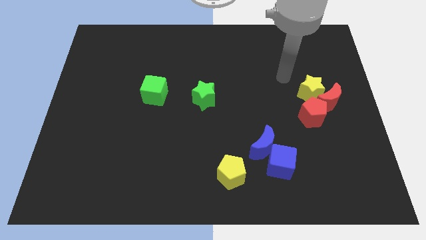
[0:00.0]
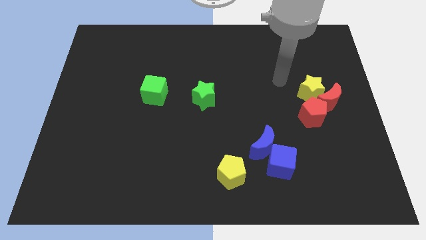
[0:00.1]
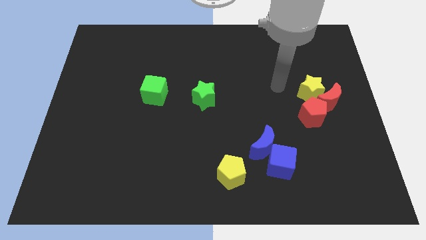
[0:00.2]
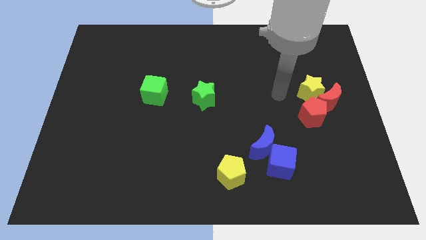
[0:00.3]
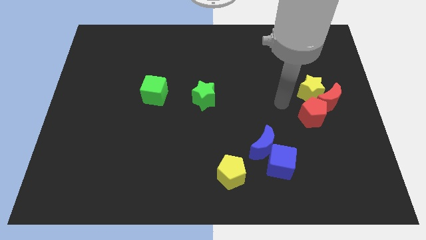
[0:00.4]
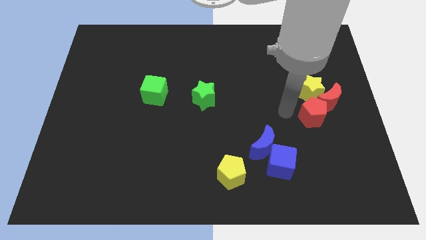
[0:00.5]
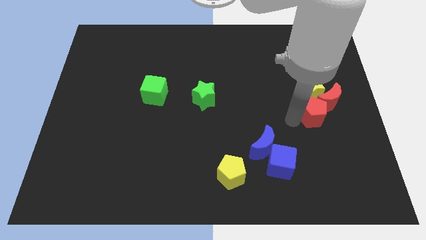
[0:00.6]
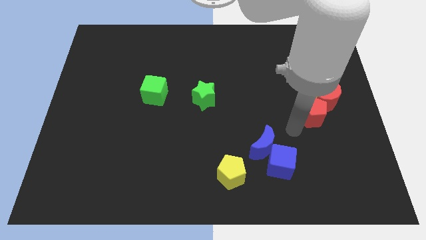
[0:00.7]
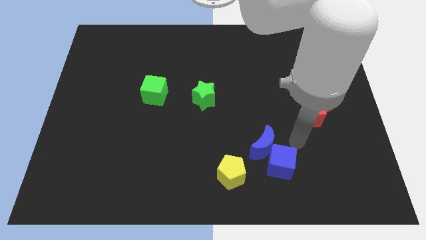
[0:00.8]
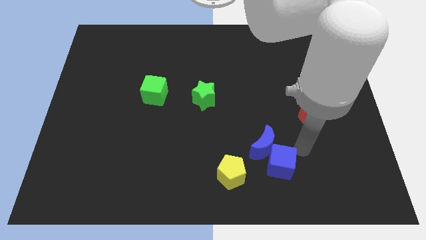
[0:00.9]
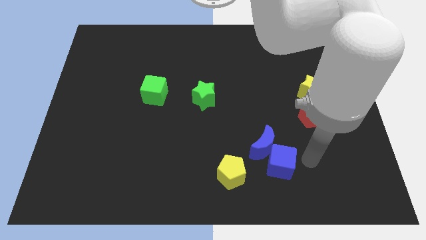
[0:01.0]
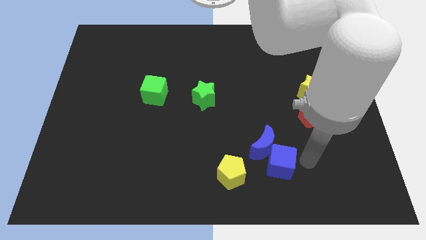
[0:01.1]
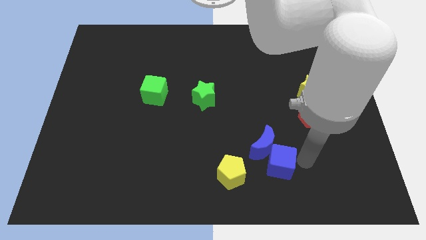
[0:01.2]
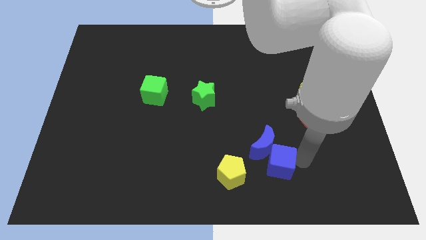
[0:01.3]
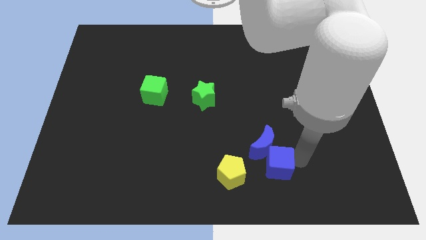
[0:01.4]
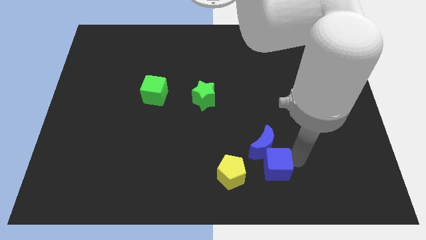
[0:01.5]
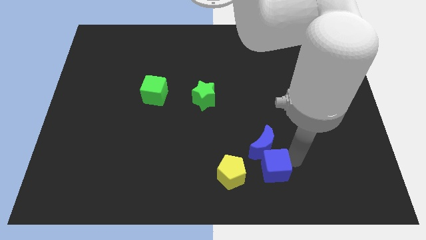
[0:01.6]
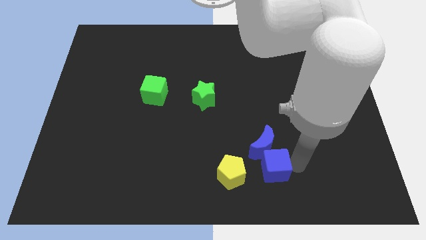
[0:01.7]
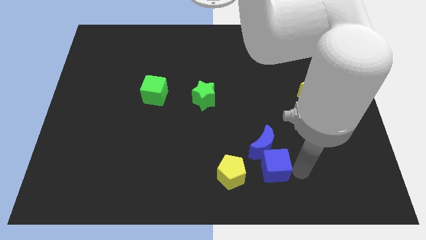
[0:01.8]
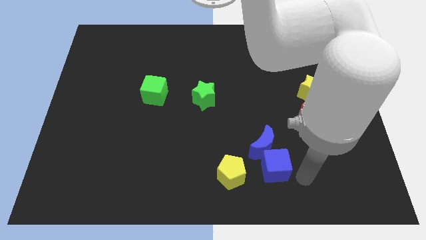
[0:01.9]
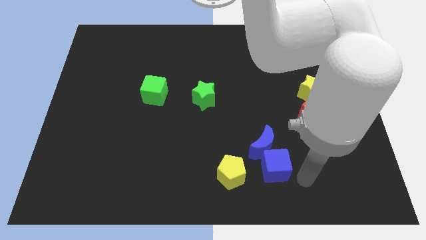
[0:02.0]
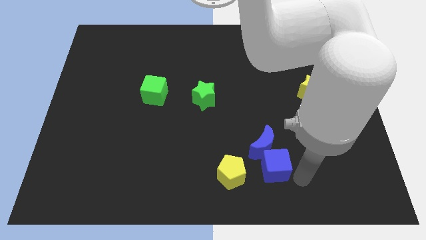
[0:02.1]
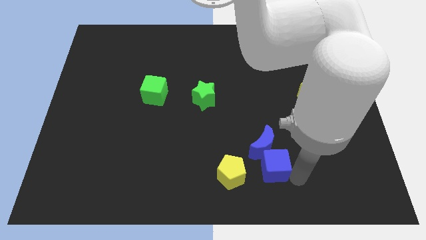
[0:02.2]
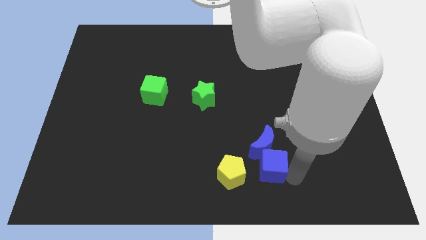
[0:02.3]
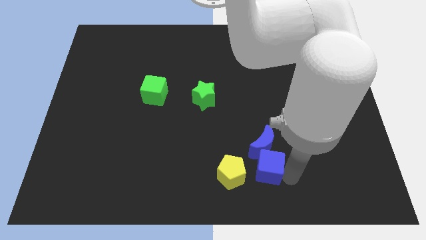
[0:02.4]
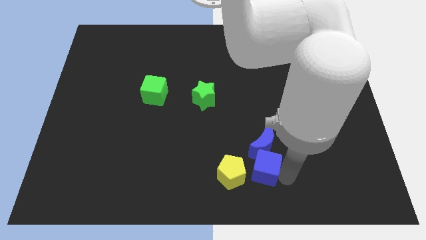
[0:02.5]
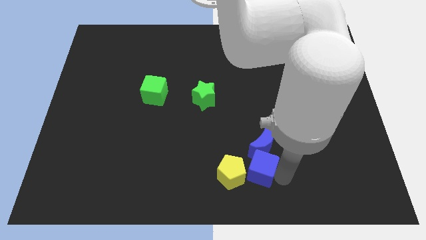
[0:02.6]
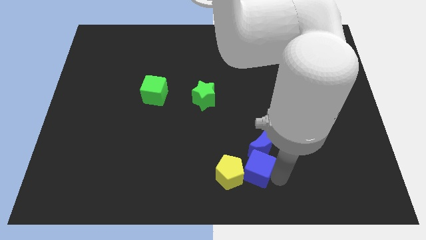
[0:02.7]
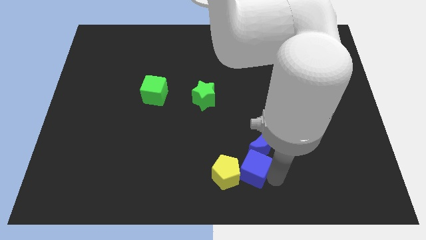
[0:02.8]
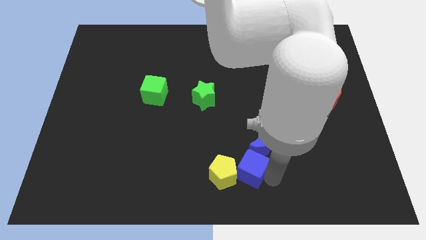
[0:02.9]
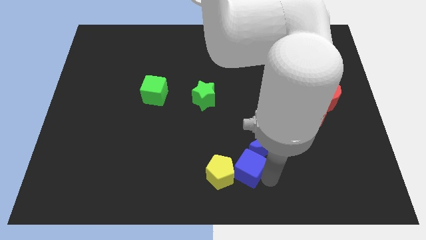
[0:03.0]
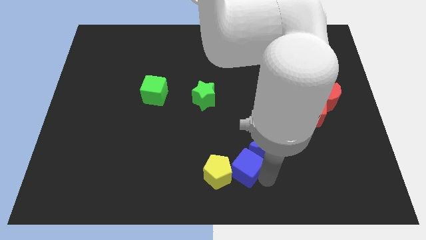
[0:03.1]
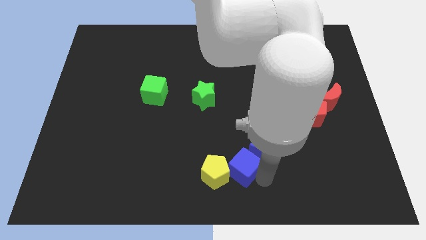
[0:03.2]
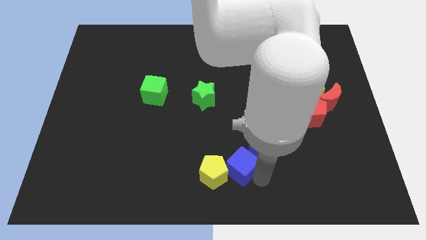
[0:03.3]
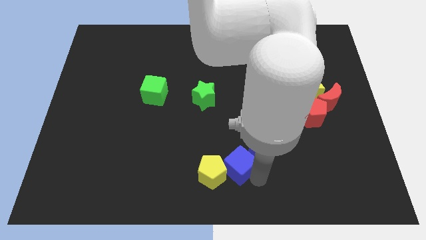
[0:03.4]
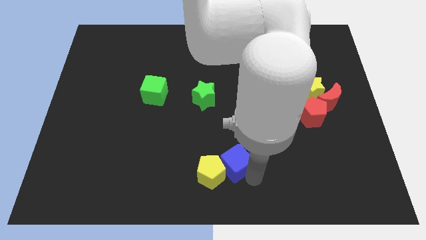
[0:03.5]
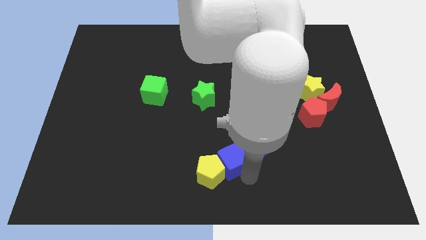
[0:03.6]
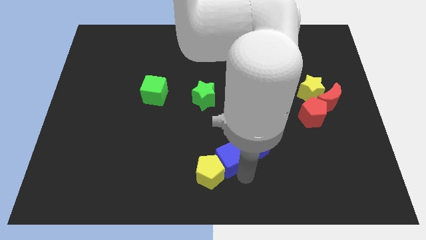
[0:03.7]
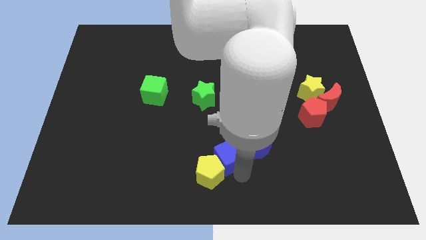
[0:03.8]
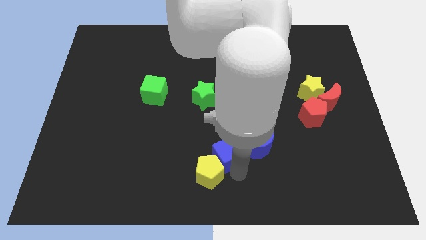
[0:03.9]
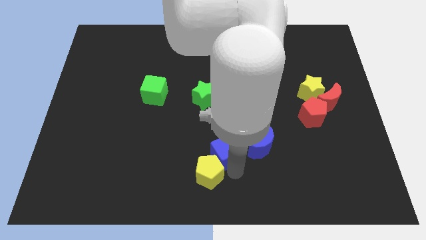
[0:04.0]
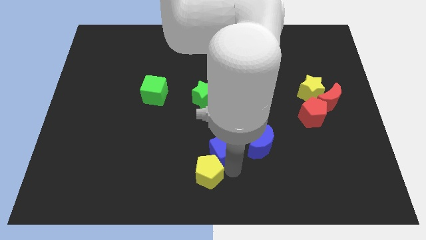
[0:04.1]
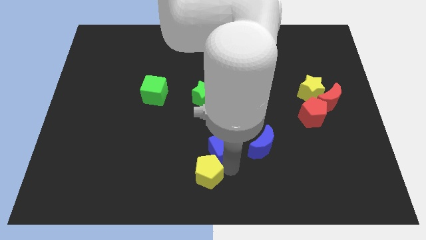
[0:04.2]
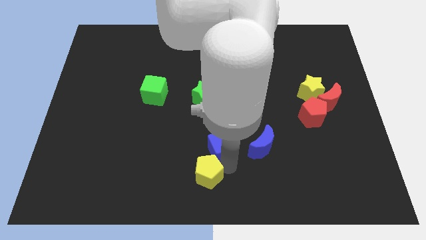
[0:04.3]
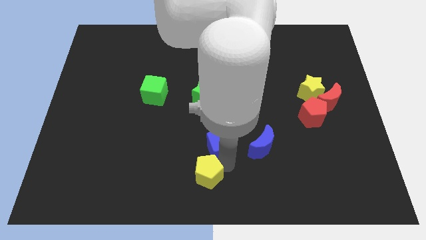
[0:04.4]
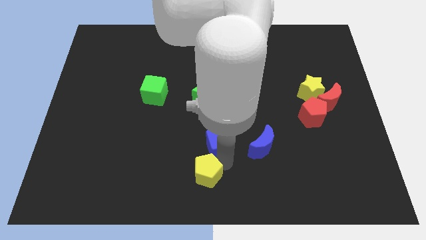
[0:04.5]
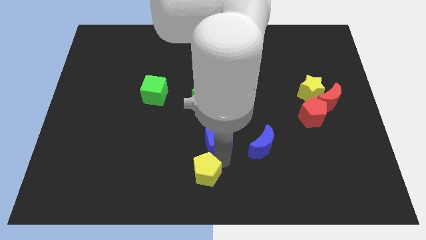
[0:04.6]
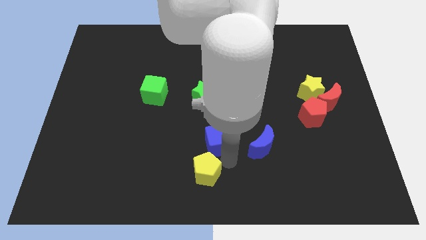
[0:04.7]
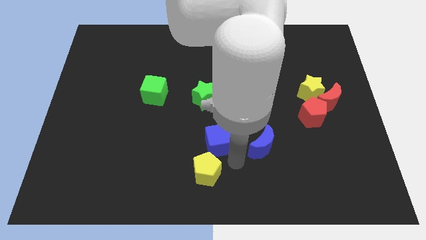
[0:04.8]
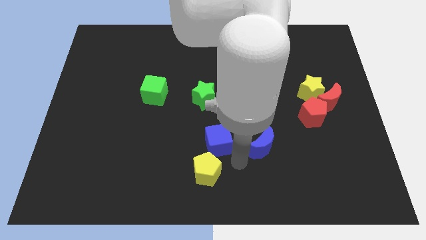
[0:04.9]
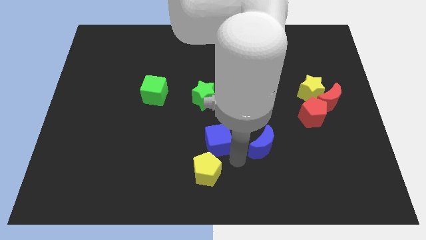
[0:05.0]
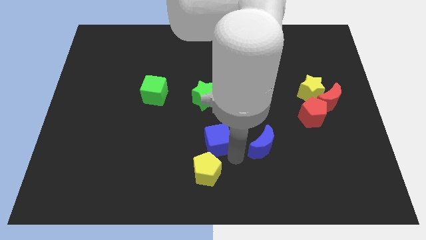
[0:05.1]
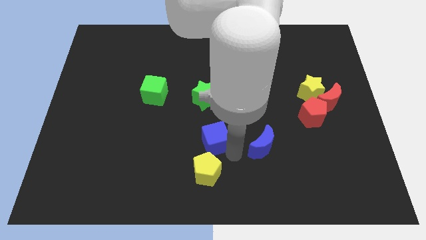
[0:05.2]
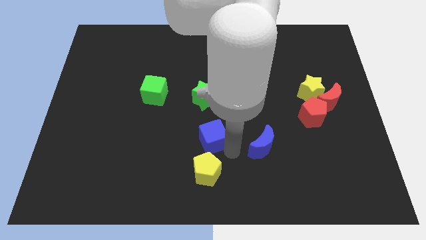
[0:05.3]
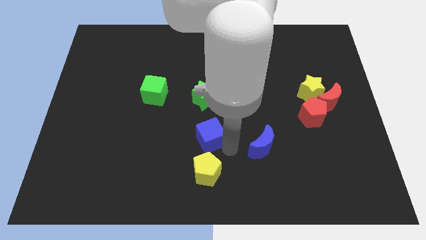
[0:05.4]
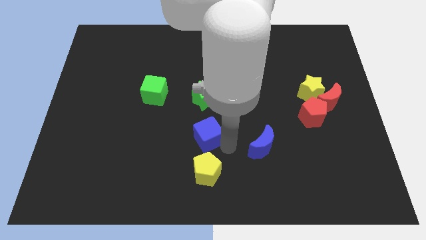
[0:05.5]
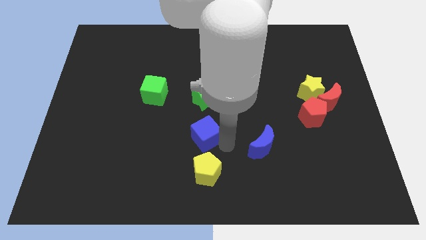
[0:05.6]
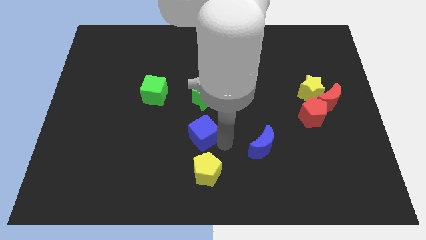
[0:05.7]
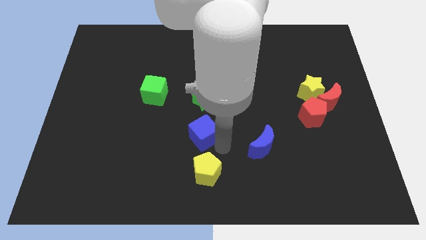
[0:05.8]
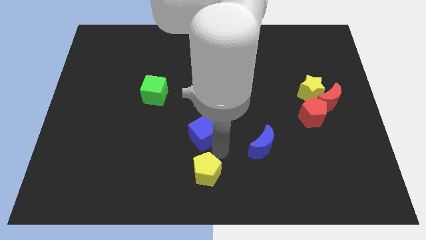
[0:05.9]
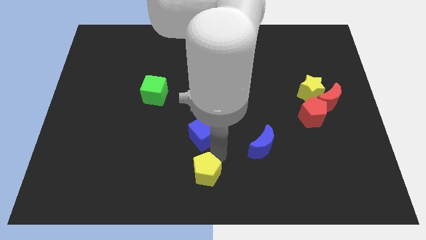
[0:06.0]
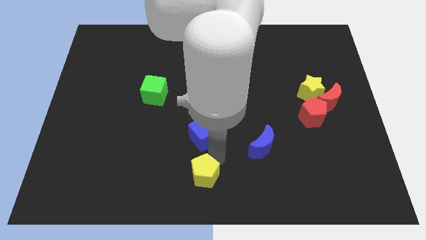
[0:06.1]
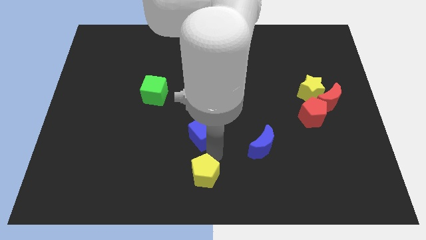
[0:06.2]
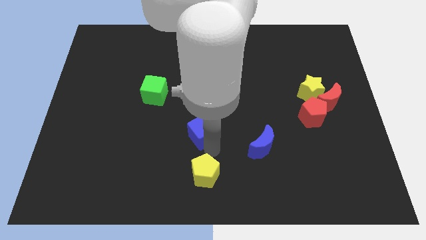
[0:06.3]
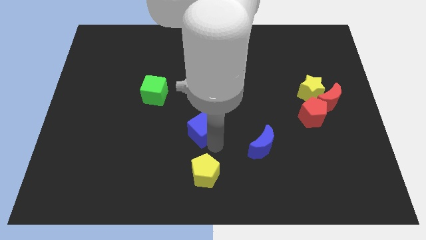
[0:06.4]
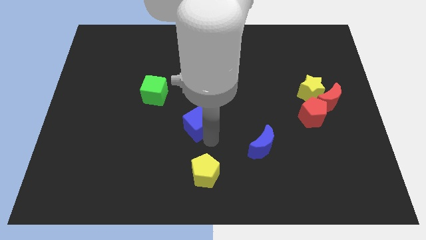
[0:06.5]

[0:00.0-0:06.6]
put the blue cube to the bottom left side of the green star

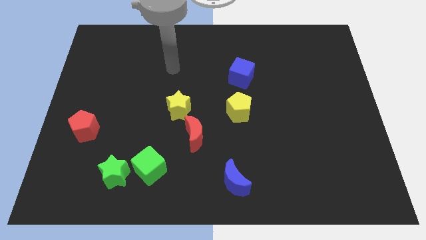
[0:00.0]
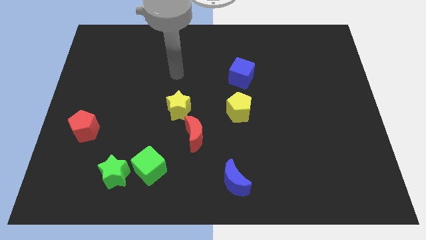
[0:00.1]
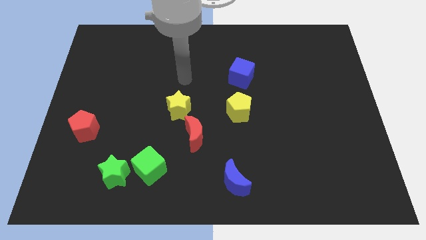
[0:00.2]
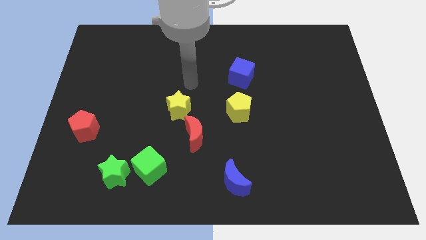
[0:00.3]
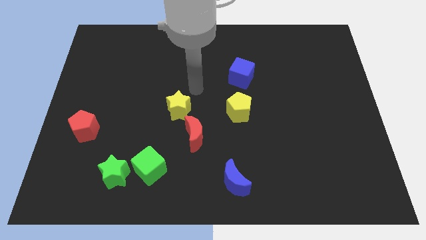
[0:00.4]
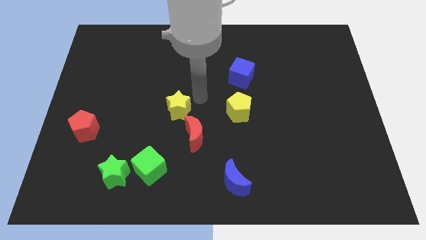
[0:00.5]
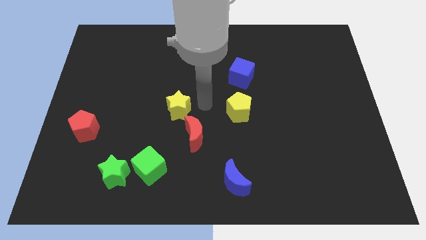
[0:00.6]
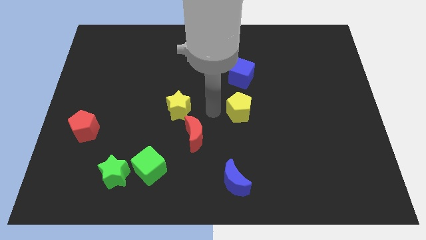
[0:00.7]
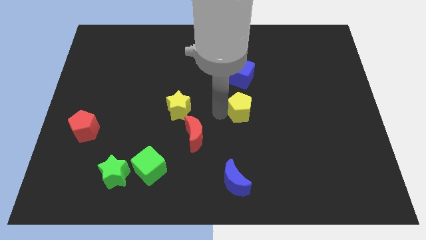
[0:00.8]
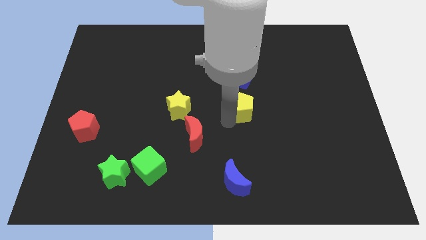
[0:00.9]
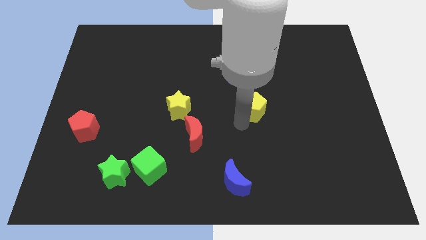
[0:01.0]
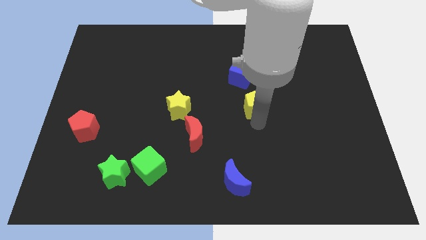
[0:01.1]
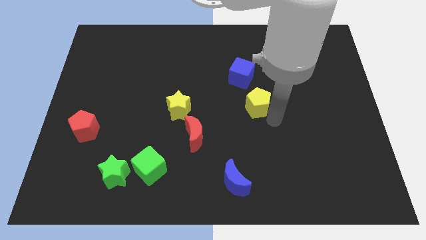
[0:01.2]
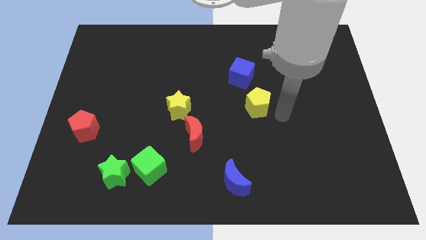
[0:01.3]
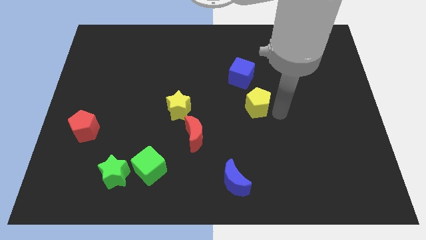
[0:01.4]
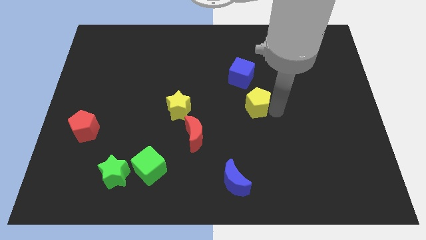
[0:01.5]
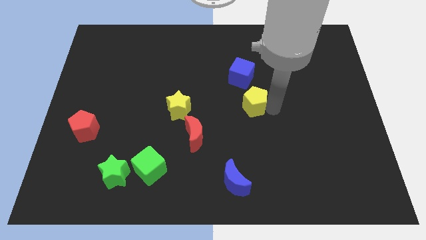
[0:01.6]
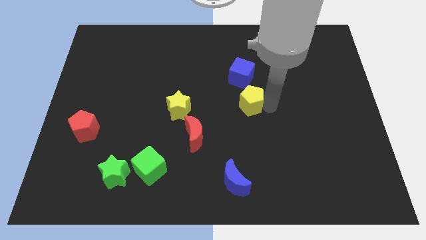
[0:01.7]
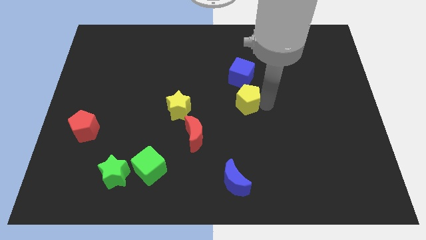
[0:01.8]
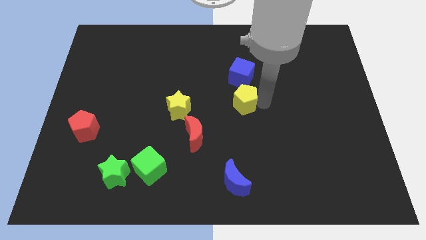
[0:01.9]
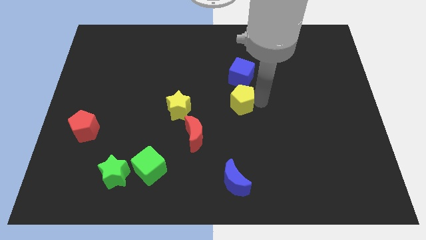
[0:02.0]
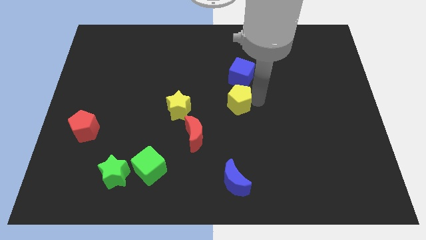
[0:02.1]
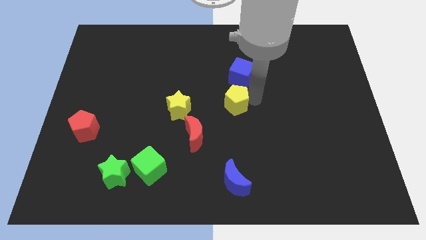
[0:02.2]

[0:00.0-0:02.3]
move the yellow pentagon diagonally down and to the left of the blue cube
